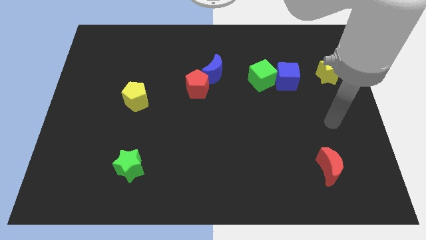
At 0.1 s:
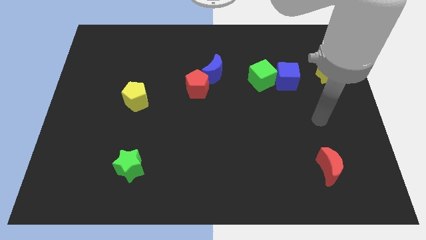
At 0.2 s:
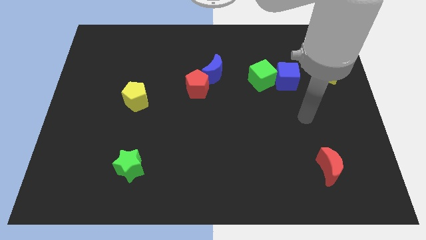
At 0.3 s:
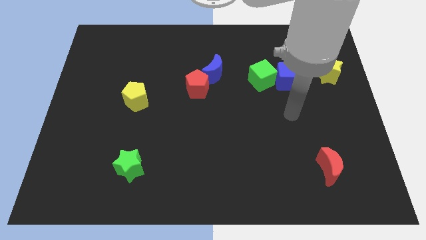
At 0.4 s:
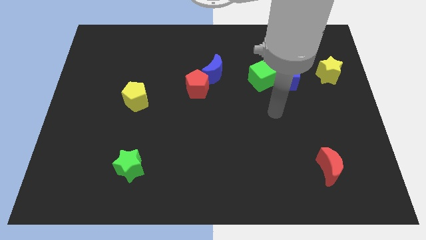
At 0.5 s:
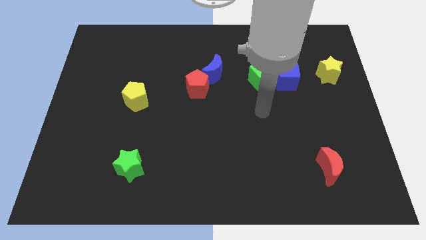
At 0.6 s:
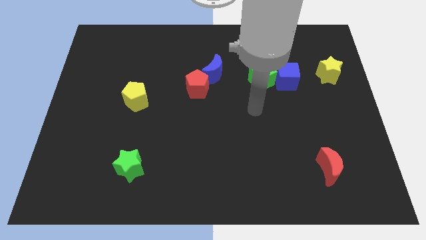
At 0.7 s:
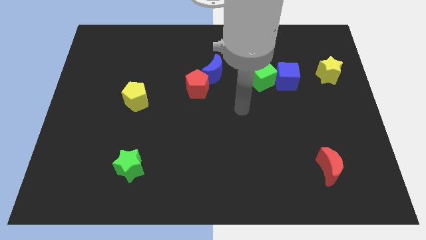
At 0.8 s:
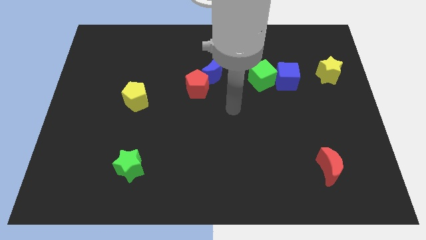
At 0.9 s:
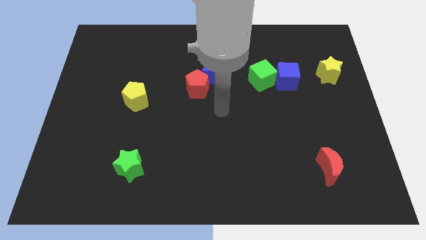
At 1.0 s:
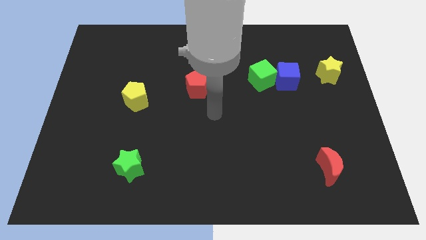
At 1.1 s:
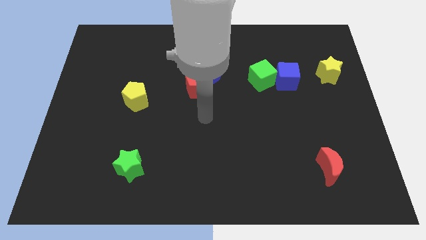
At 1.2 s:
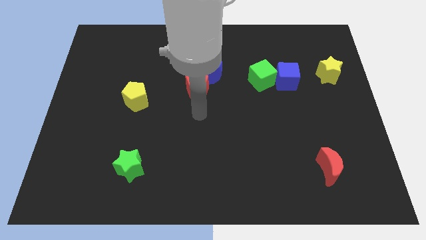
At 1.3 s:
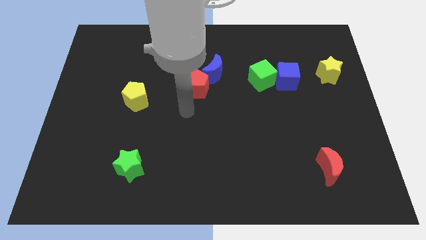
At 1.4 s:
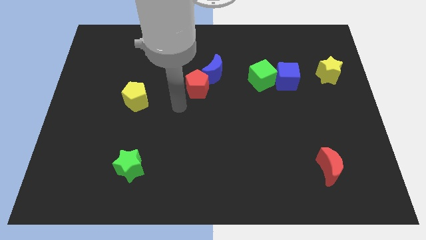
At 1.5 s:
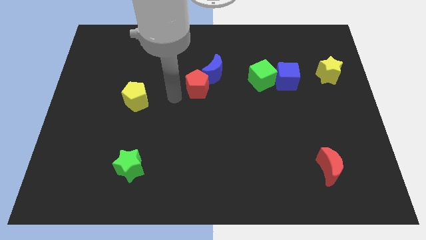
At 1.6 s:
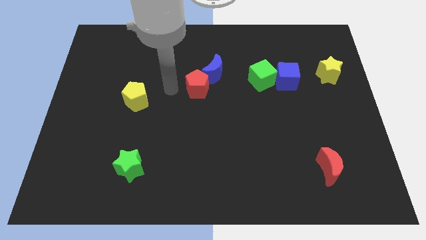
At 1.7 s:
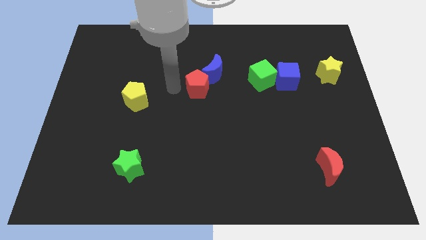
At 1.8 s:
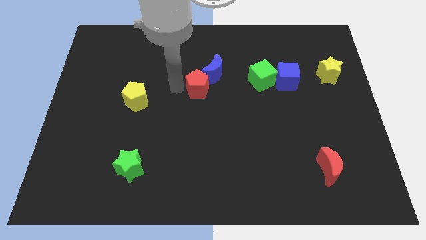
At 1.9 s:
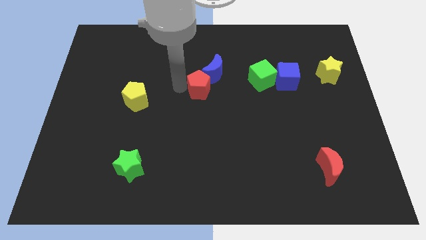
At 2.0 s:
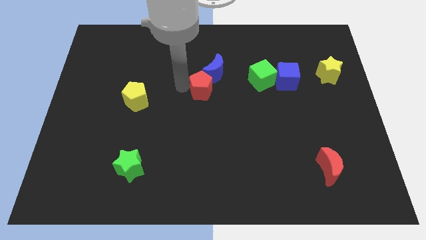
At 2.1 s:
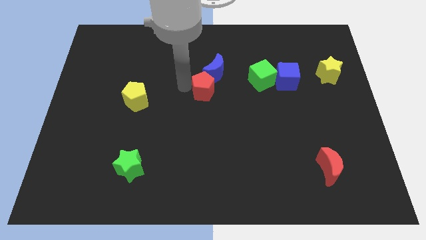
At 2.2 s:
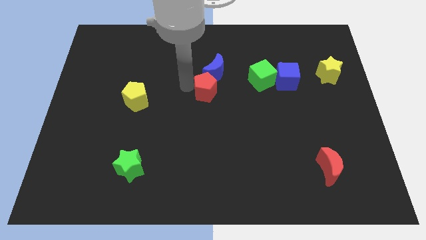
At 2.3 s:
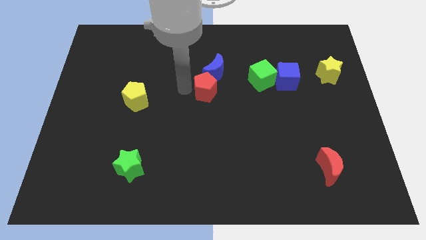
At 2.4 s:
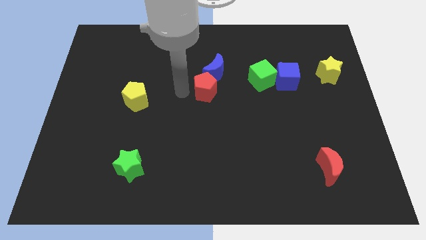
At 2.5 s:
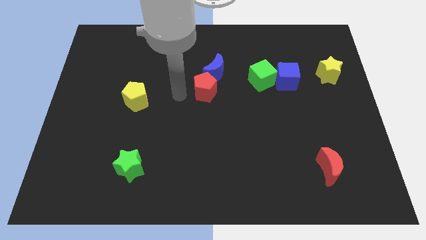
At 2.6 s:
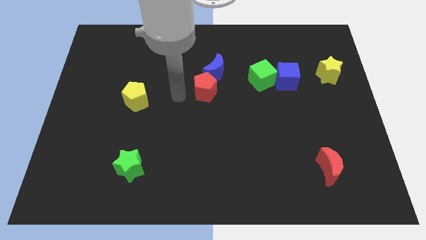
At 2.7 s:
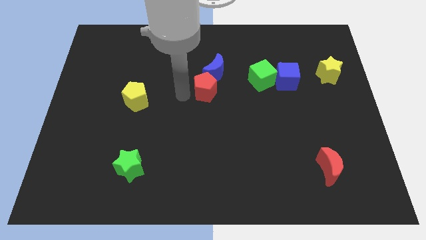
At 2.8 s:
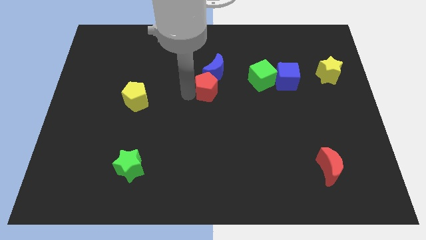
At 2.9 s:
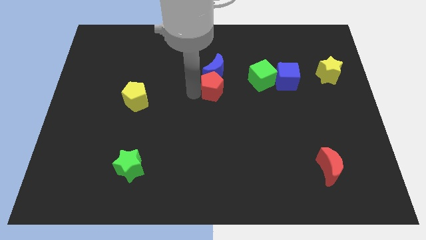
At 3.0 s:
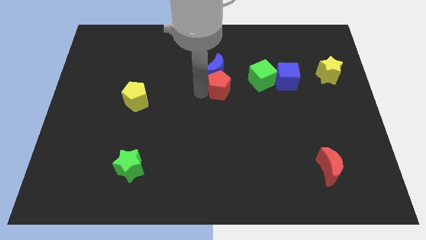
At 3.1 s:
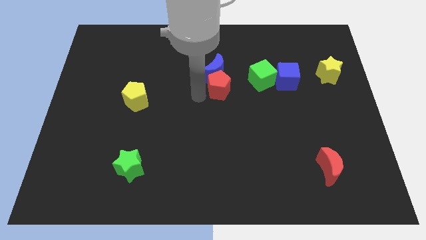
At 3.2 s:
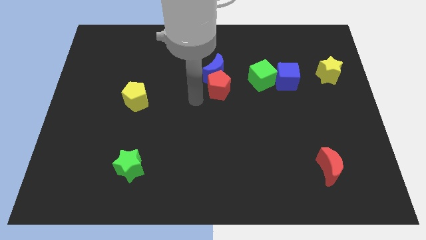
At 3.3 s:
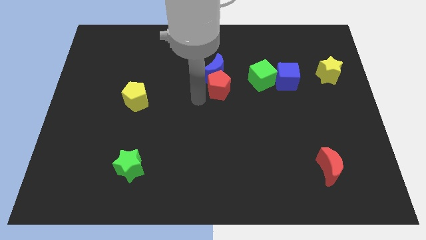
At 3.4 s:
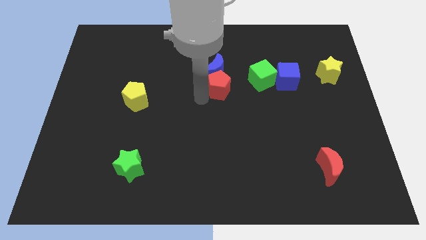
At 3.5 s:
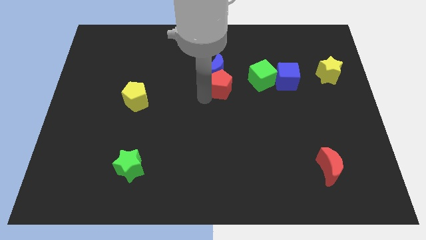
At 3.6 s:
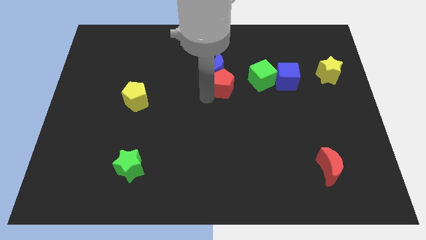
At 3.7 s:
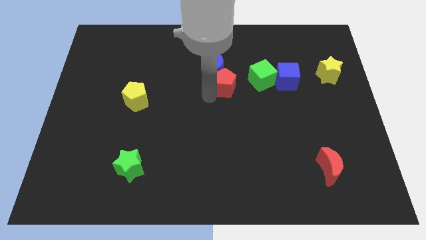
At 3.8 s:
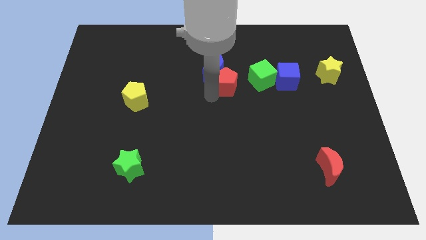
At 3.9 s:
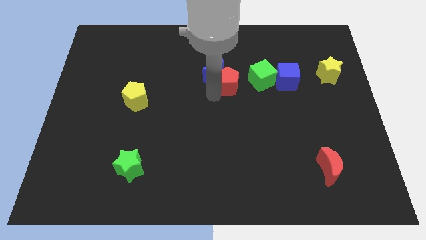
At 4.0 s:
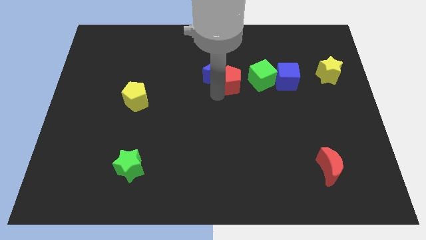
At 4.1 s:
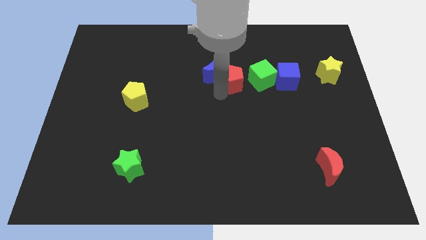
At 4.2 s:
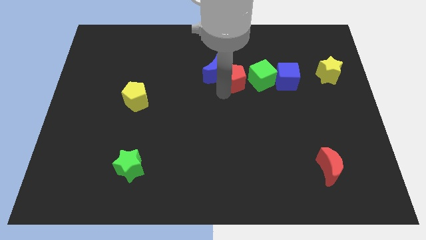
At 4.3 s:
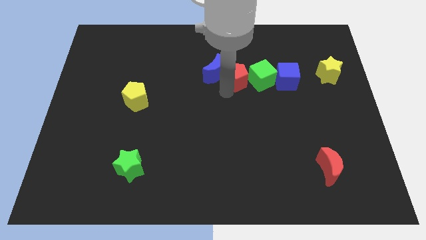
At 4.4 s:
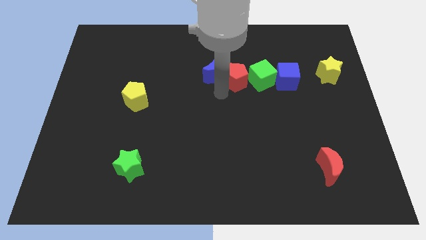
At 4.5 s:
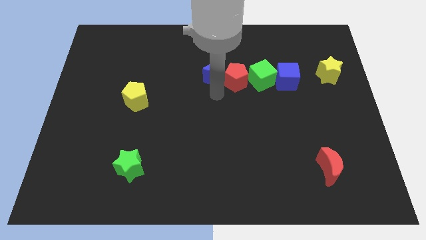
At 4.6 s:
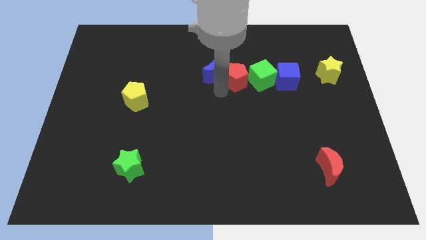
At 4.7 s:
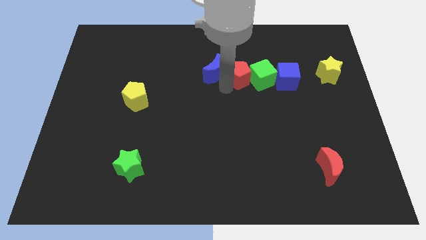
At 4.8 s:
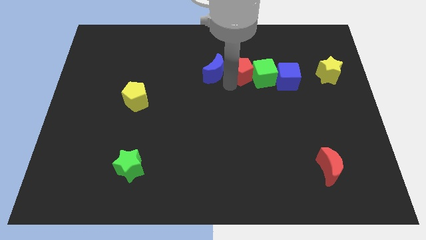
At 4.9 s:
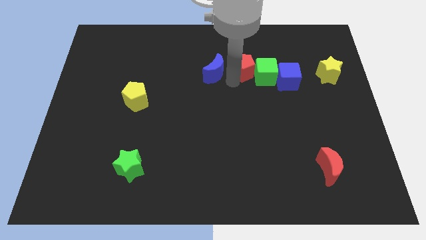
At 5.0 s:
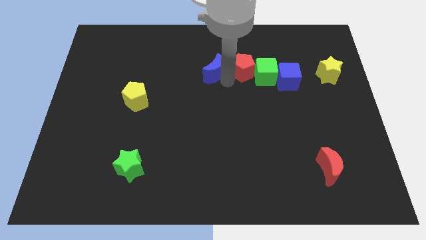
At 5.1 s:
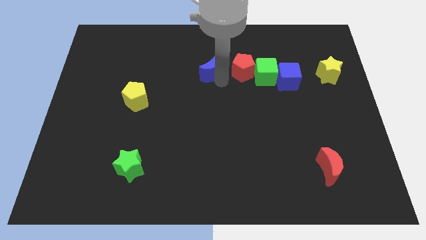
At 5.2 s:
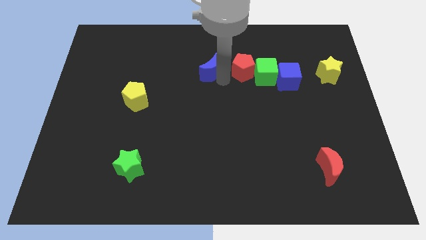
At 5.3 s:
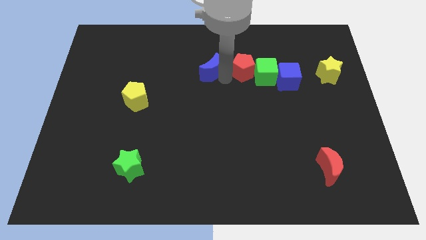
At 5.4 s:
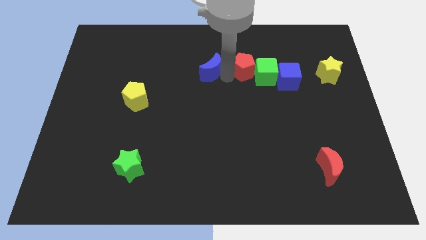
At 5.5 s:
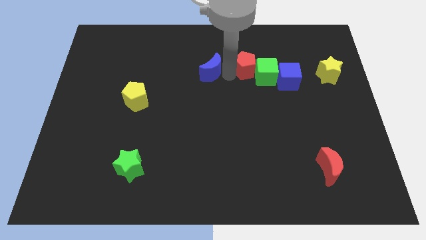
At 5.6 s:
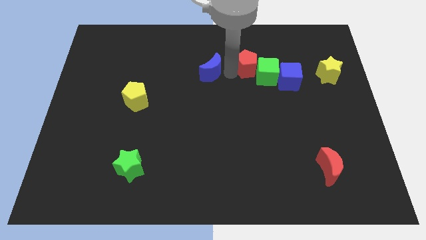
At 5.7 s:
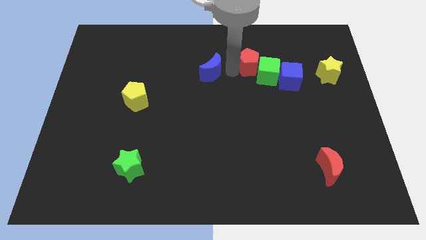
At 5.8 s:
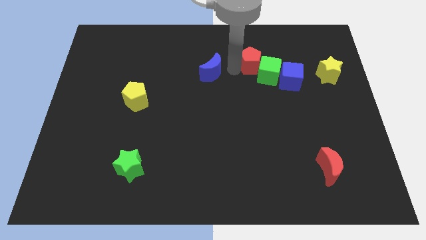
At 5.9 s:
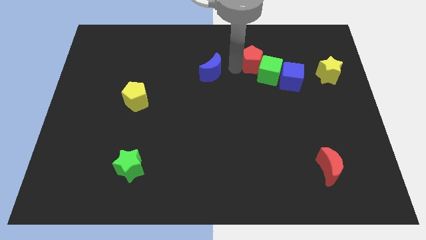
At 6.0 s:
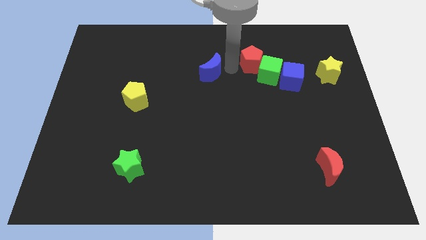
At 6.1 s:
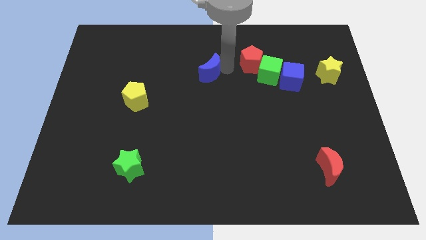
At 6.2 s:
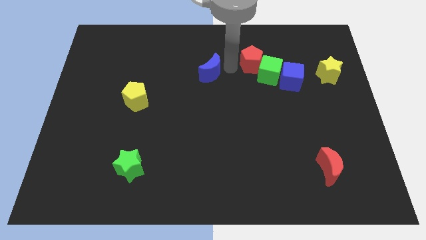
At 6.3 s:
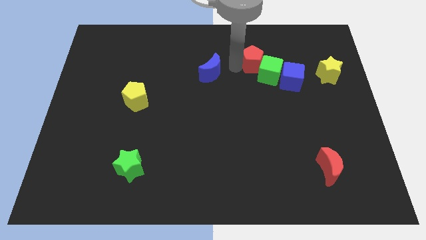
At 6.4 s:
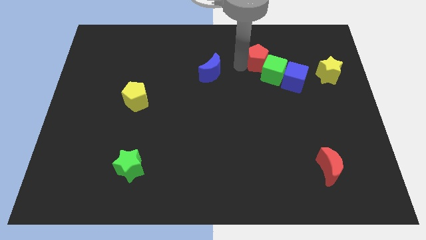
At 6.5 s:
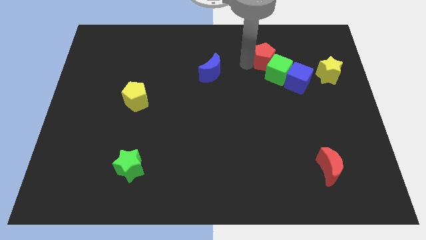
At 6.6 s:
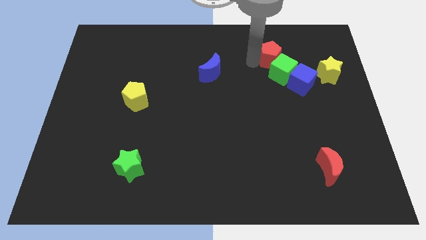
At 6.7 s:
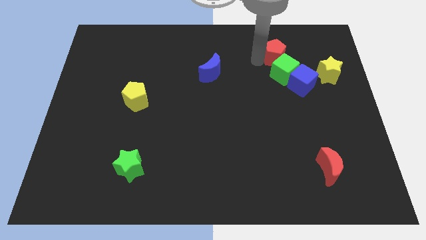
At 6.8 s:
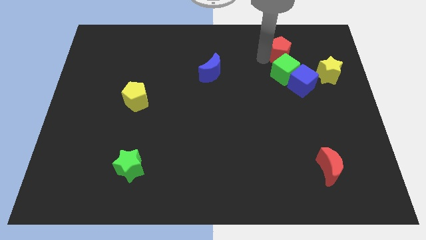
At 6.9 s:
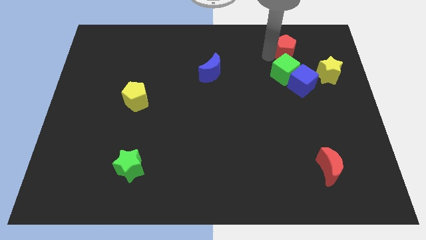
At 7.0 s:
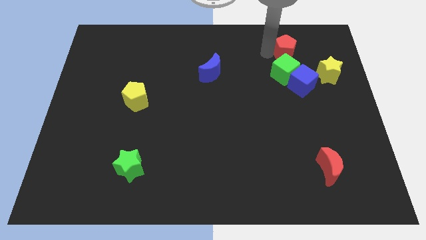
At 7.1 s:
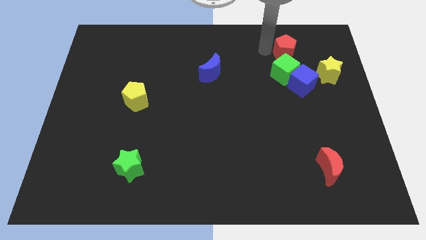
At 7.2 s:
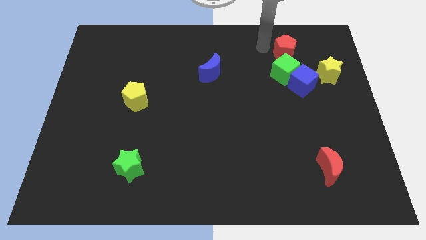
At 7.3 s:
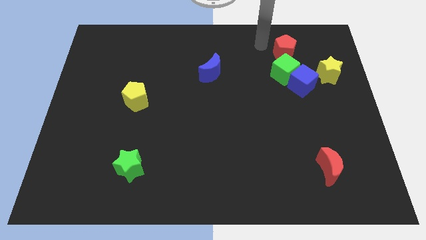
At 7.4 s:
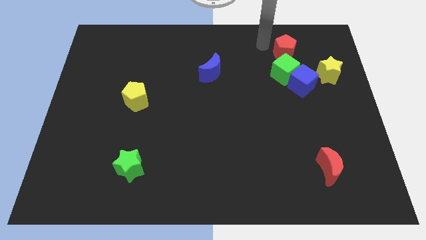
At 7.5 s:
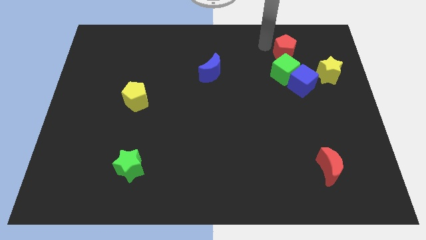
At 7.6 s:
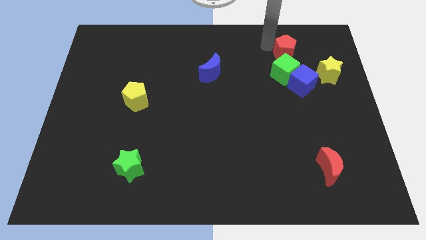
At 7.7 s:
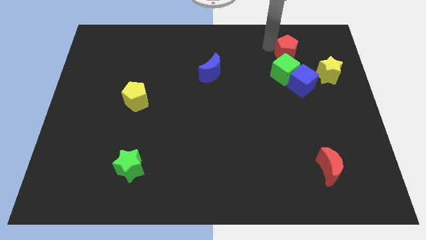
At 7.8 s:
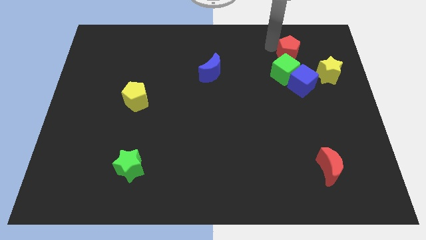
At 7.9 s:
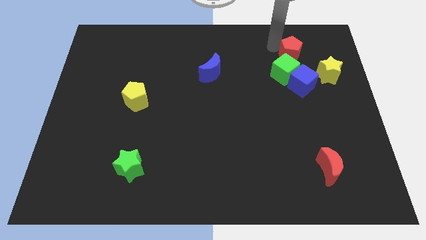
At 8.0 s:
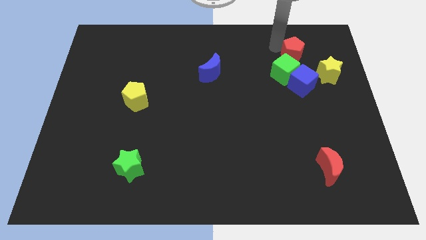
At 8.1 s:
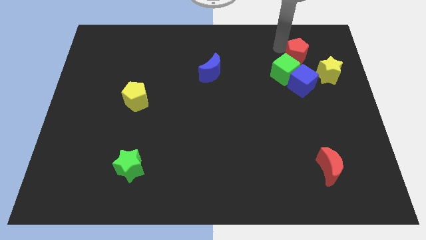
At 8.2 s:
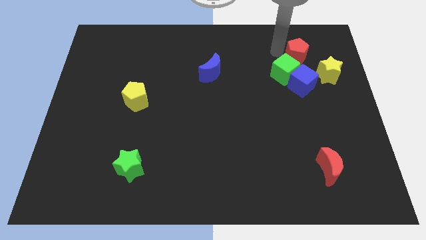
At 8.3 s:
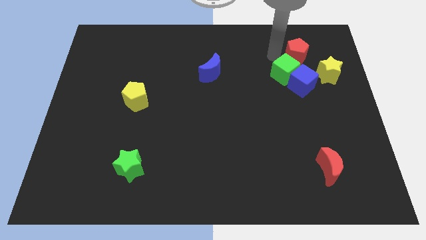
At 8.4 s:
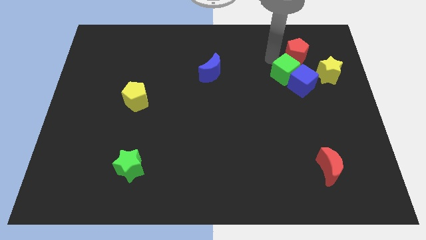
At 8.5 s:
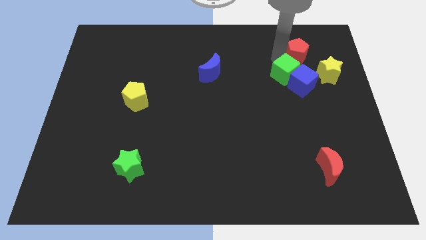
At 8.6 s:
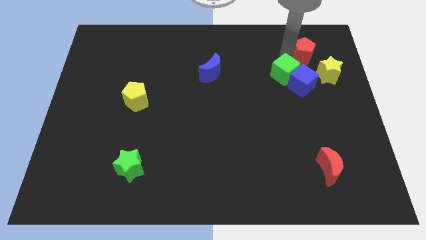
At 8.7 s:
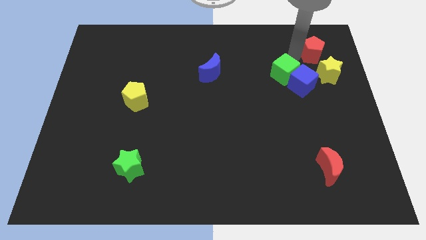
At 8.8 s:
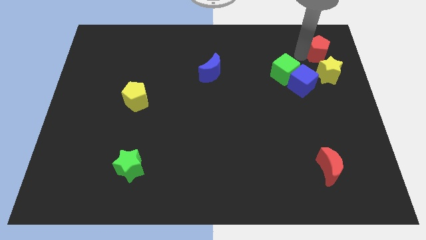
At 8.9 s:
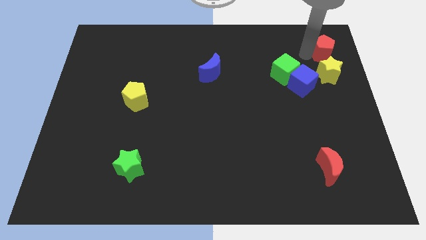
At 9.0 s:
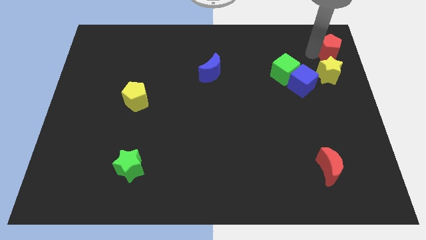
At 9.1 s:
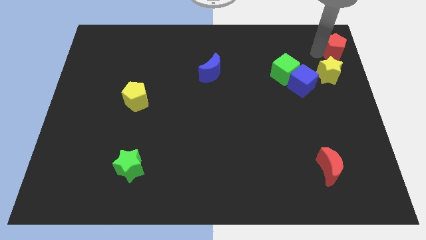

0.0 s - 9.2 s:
slide the red pentagon to the upper right corner
